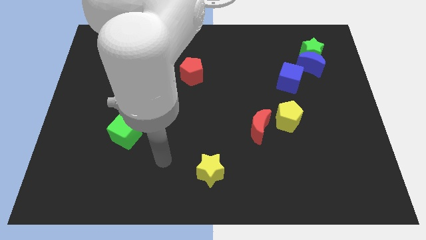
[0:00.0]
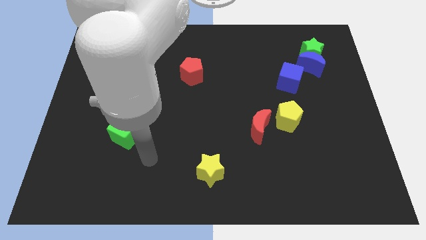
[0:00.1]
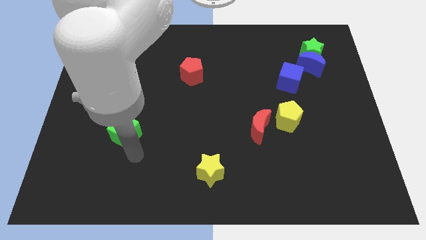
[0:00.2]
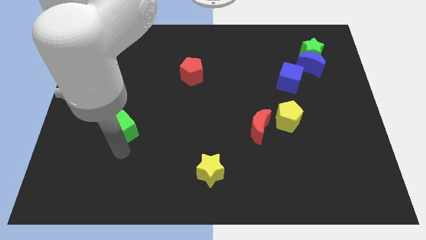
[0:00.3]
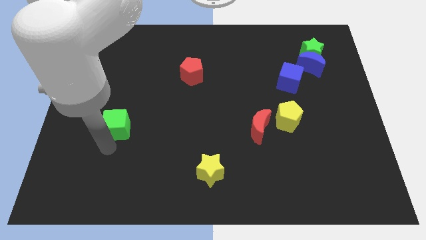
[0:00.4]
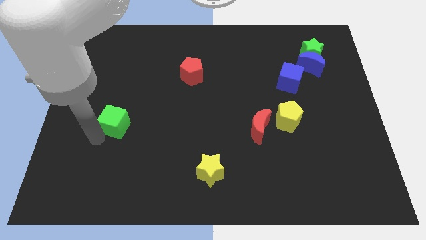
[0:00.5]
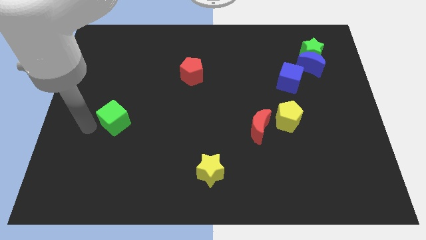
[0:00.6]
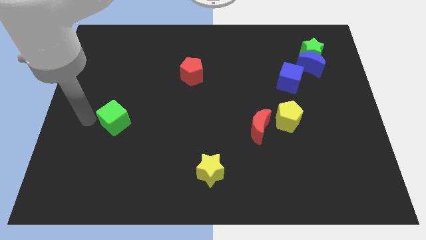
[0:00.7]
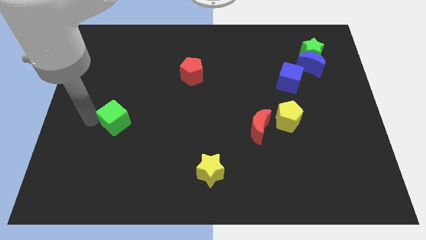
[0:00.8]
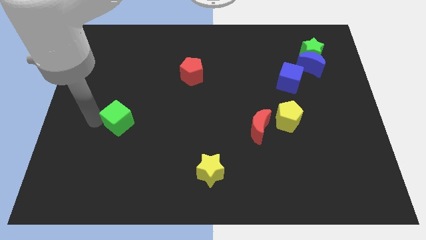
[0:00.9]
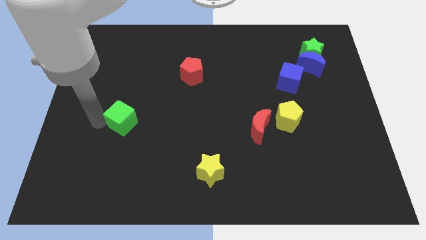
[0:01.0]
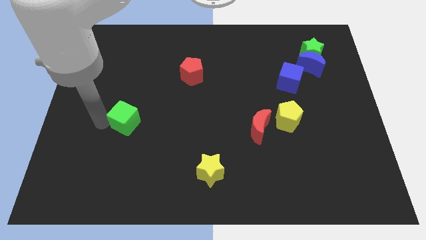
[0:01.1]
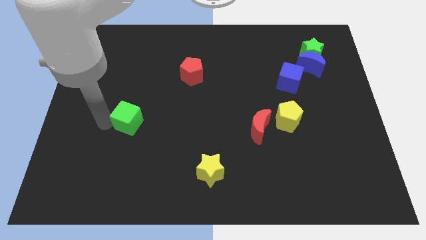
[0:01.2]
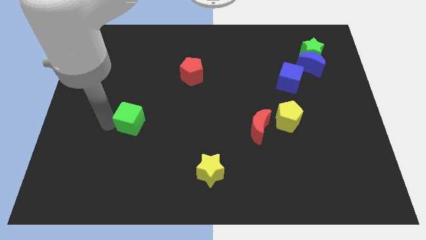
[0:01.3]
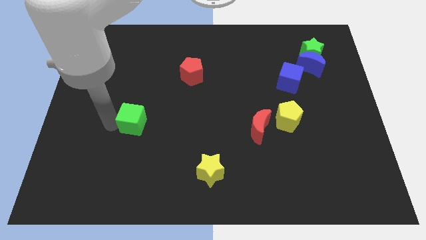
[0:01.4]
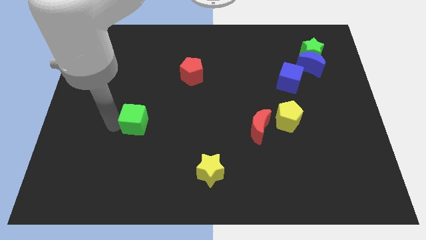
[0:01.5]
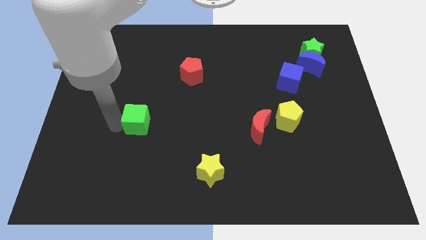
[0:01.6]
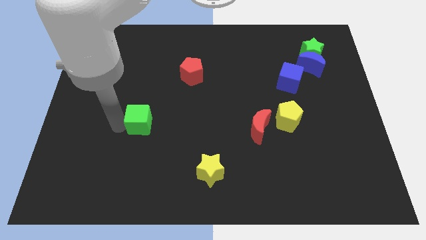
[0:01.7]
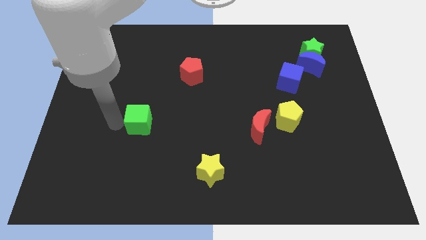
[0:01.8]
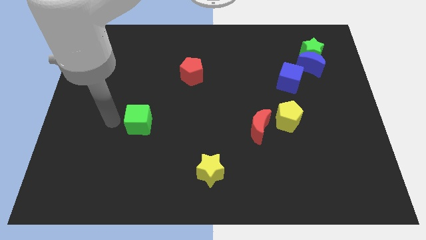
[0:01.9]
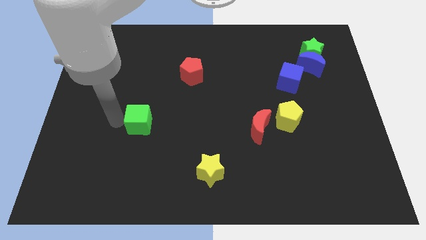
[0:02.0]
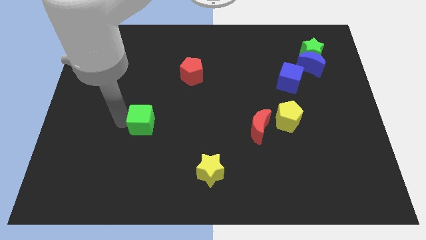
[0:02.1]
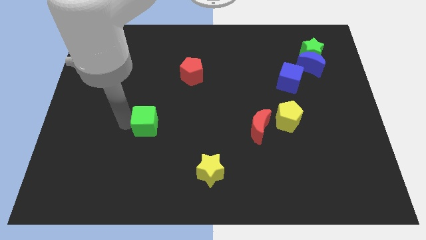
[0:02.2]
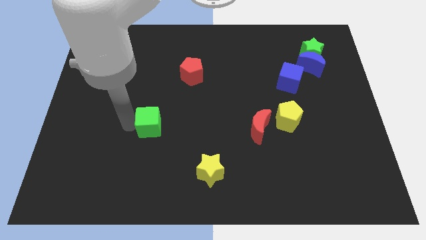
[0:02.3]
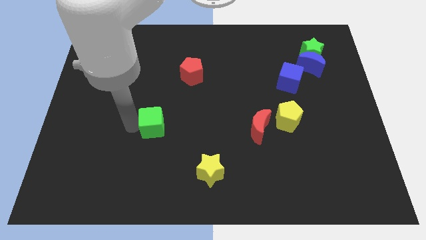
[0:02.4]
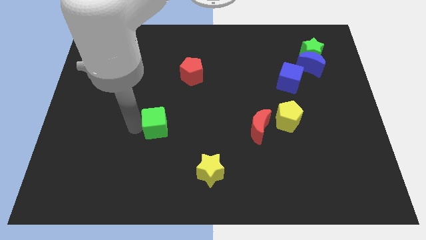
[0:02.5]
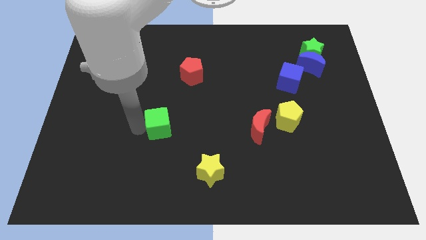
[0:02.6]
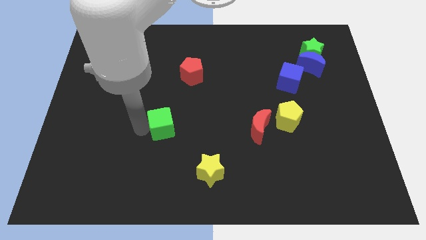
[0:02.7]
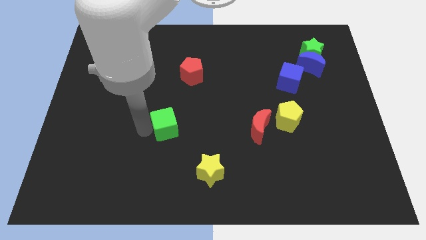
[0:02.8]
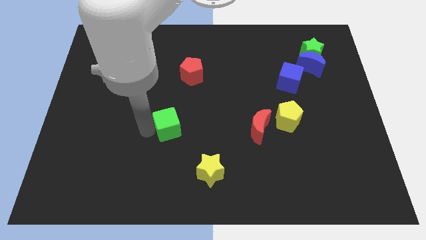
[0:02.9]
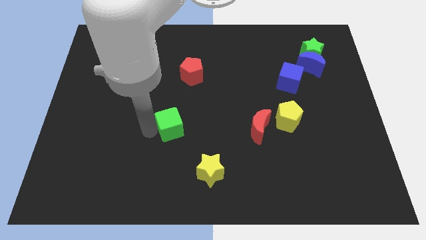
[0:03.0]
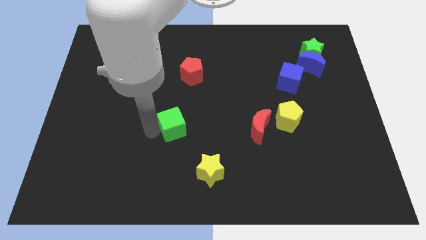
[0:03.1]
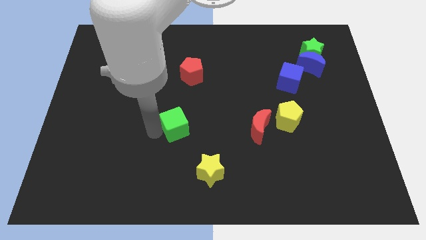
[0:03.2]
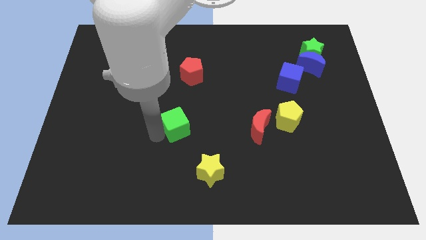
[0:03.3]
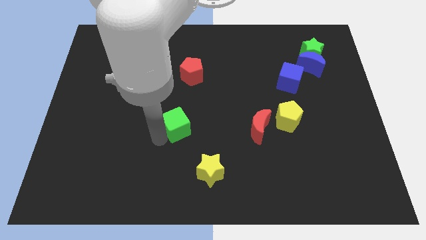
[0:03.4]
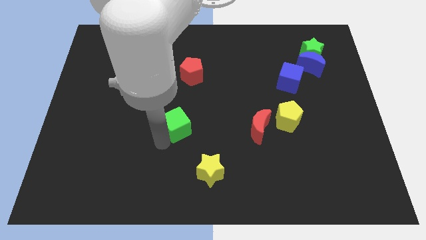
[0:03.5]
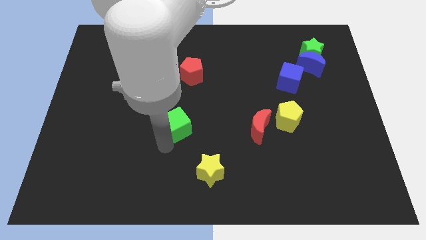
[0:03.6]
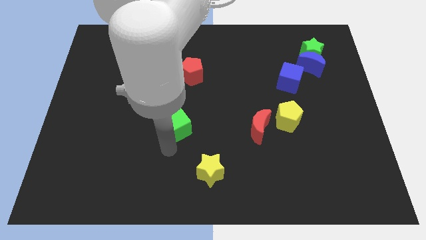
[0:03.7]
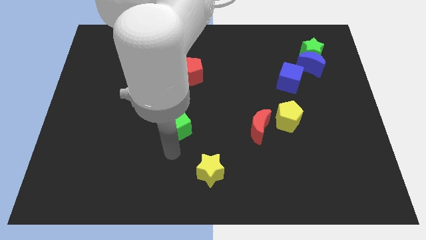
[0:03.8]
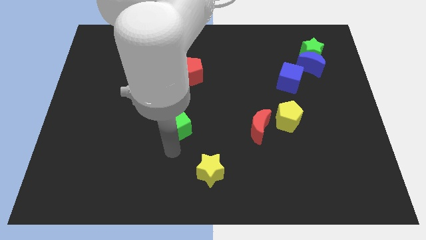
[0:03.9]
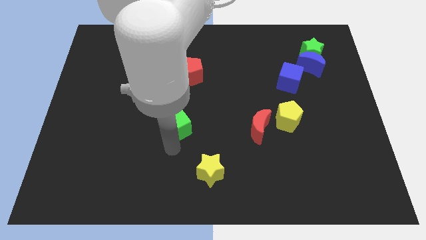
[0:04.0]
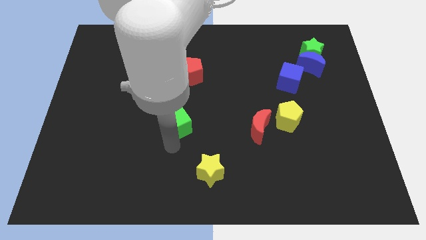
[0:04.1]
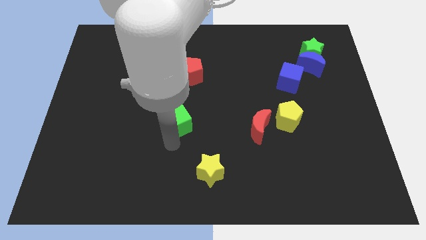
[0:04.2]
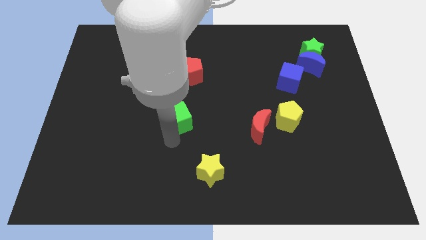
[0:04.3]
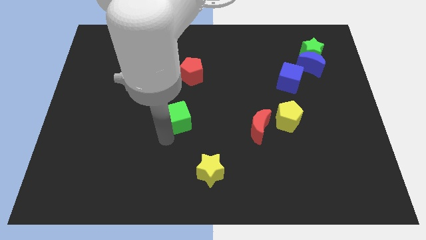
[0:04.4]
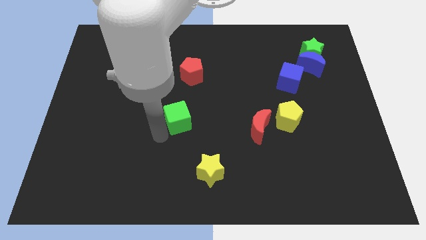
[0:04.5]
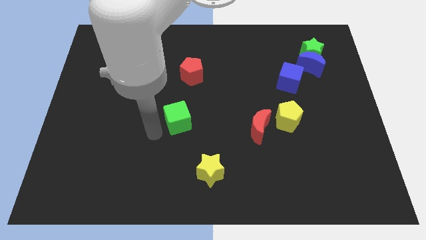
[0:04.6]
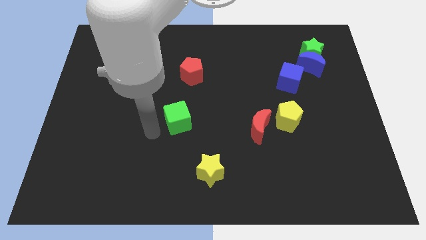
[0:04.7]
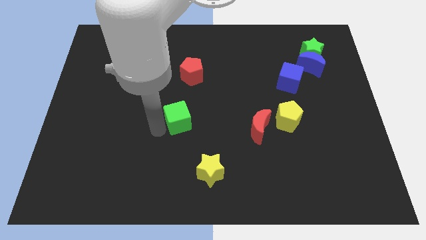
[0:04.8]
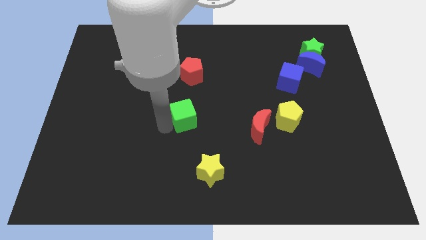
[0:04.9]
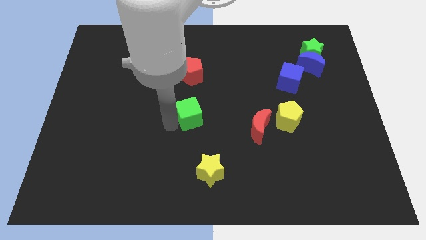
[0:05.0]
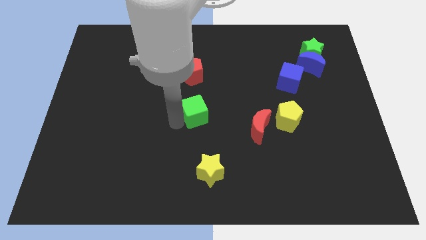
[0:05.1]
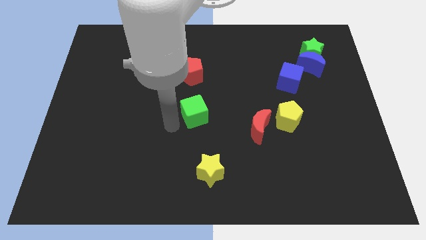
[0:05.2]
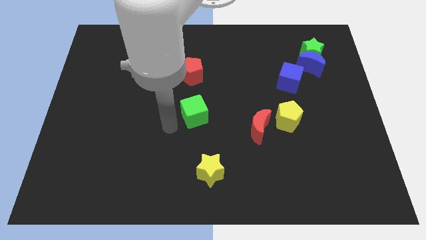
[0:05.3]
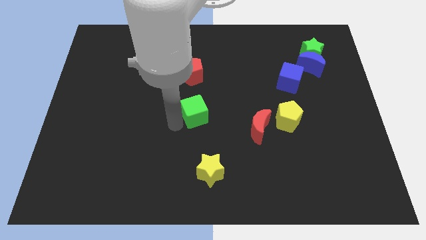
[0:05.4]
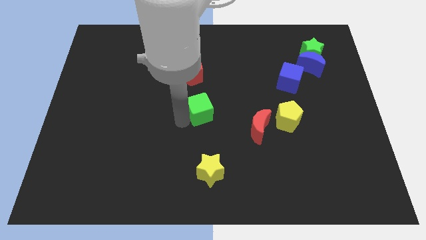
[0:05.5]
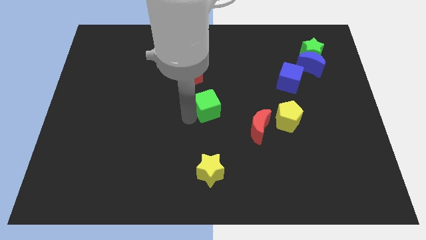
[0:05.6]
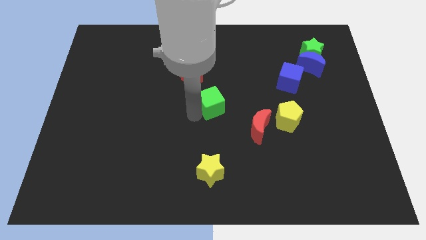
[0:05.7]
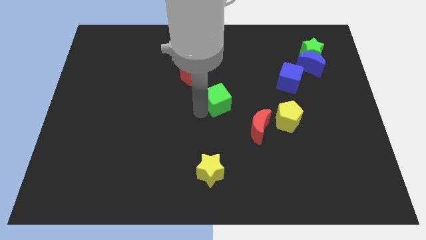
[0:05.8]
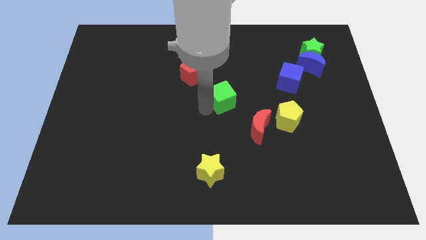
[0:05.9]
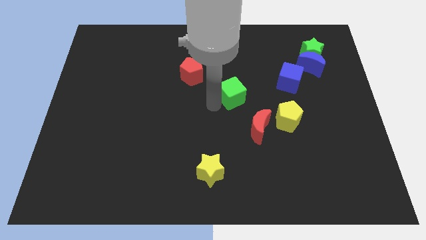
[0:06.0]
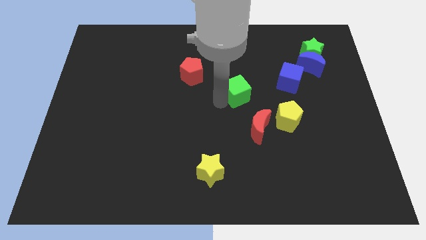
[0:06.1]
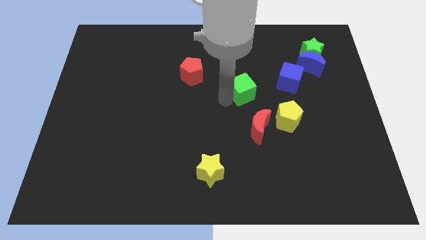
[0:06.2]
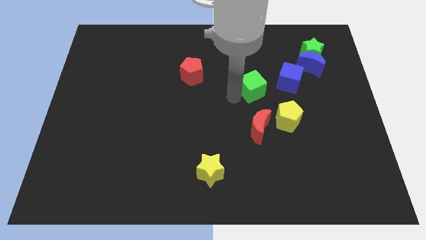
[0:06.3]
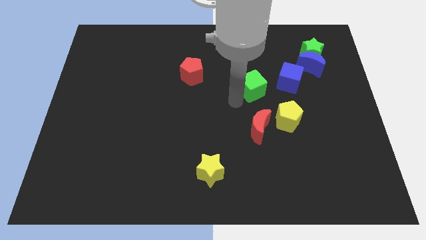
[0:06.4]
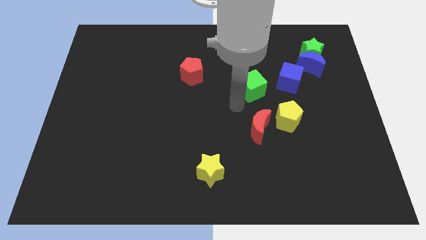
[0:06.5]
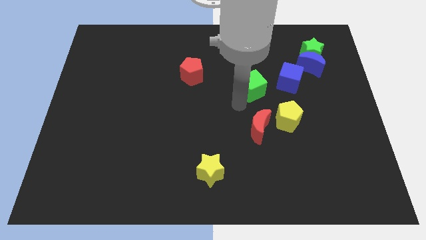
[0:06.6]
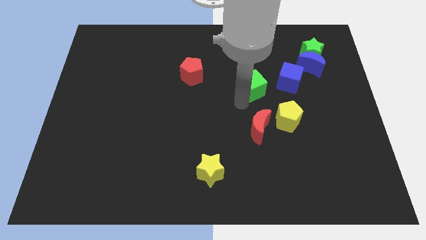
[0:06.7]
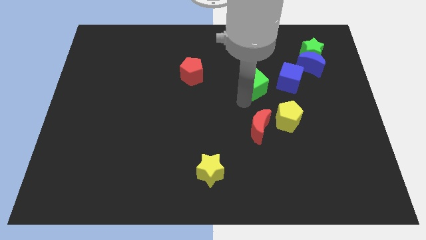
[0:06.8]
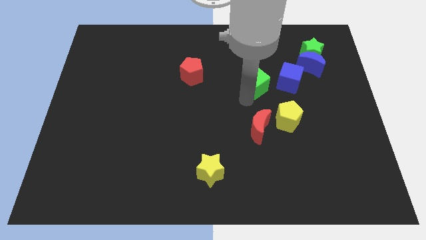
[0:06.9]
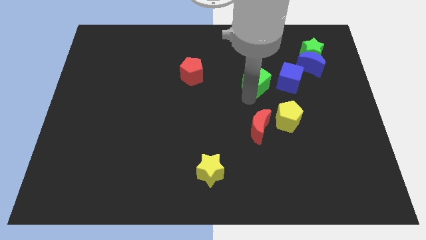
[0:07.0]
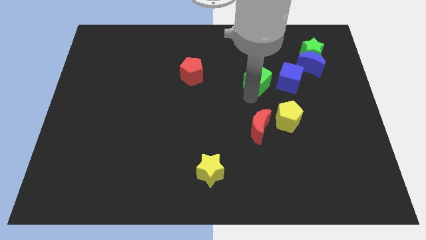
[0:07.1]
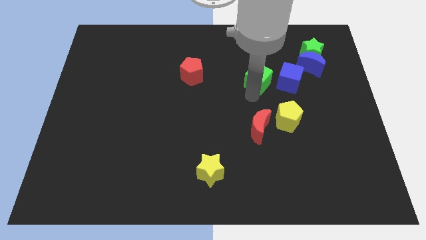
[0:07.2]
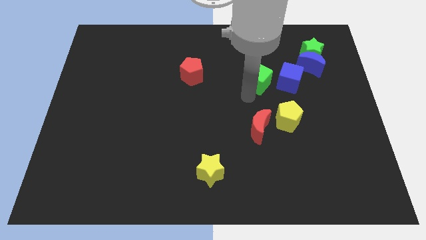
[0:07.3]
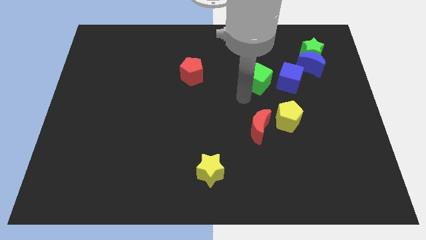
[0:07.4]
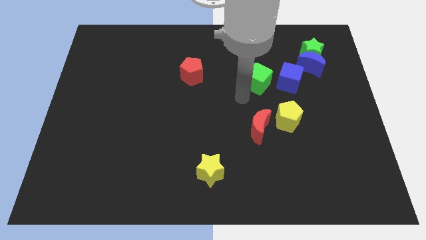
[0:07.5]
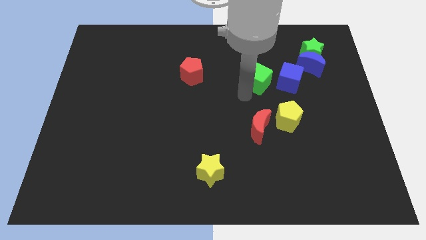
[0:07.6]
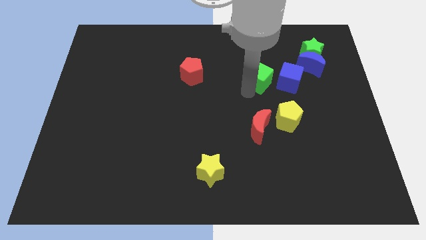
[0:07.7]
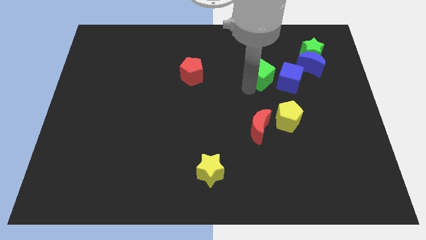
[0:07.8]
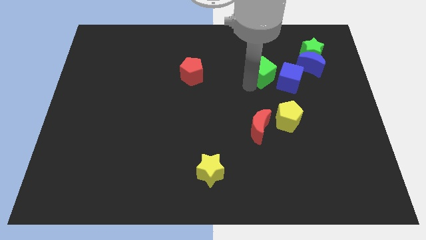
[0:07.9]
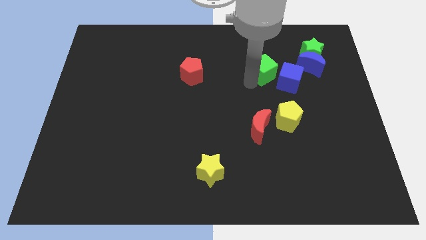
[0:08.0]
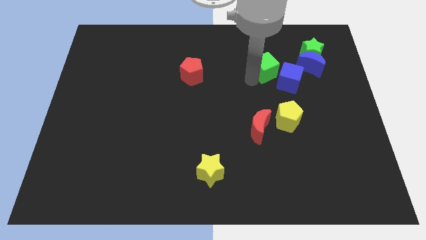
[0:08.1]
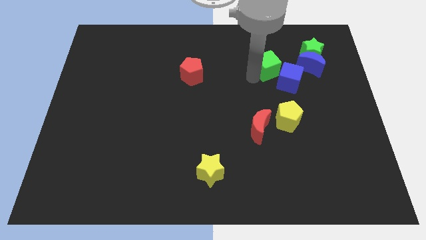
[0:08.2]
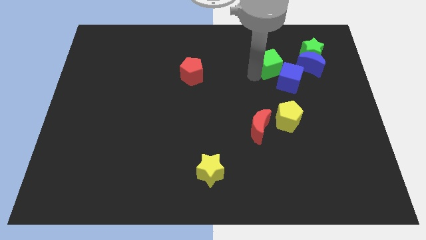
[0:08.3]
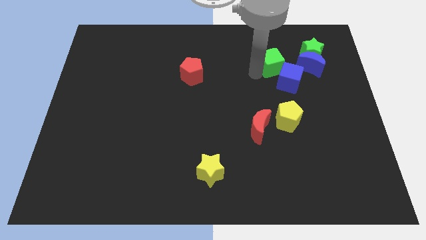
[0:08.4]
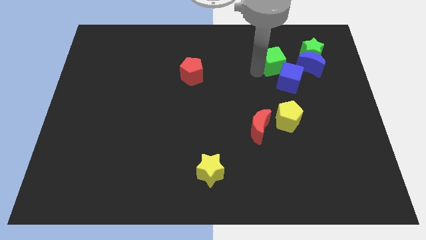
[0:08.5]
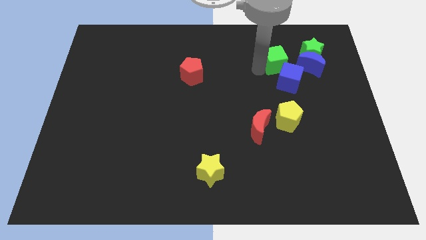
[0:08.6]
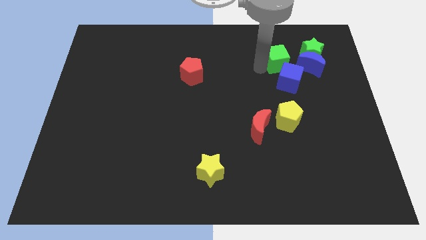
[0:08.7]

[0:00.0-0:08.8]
push the green cube to the bottom left side of the green star
